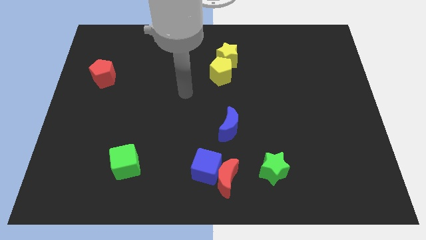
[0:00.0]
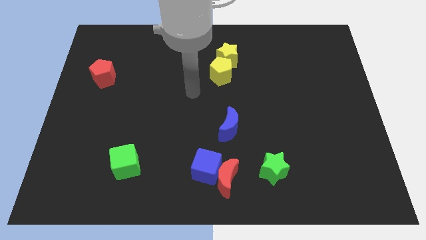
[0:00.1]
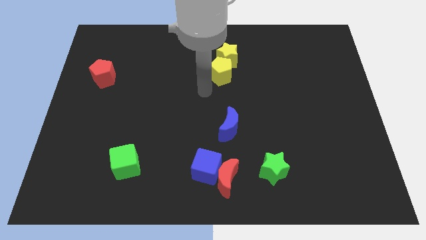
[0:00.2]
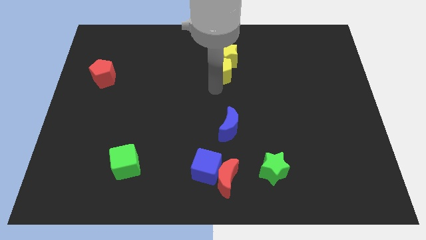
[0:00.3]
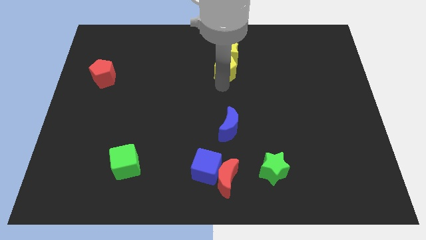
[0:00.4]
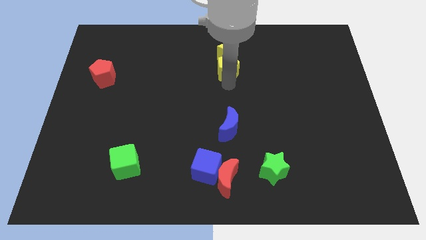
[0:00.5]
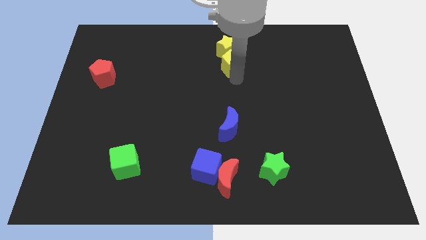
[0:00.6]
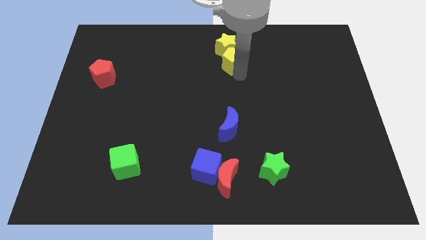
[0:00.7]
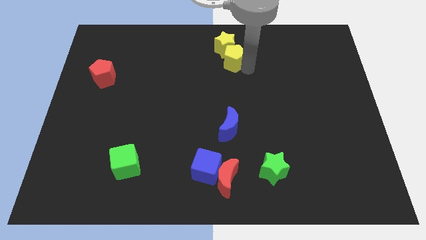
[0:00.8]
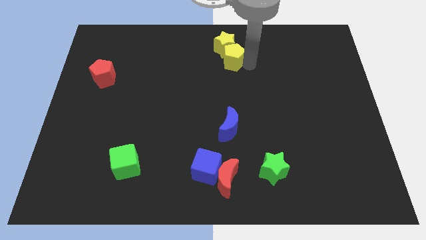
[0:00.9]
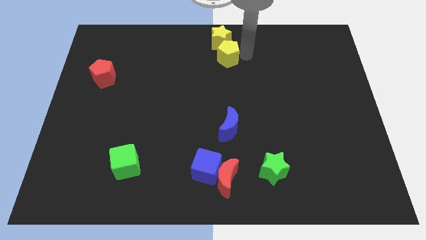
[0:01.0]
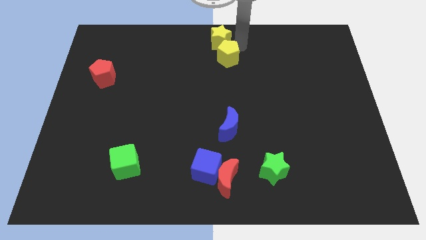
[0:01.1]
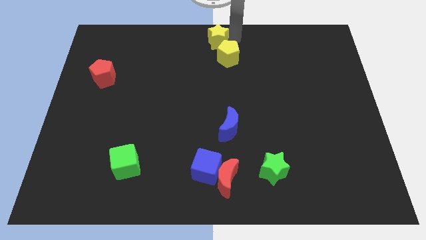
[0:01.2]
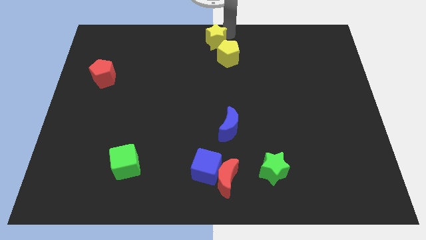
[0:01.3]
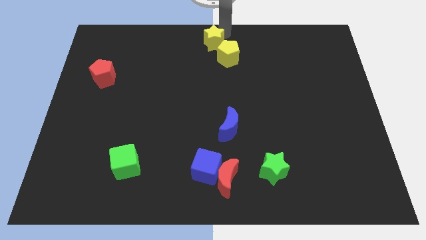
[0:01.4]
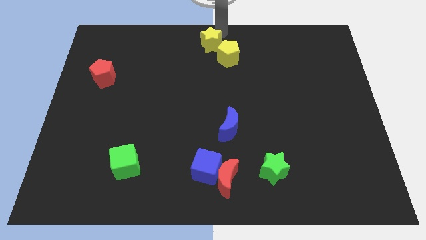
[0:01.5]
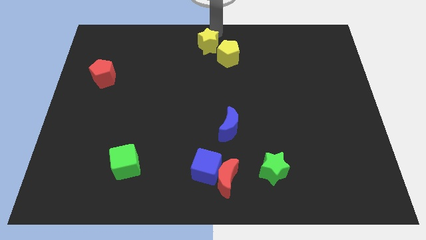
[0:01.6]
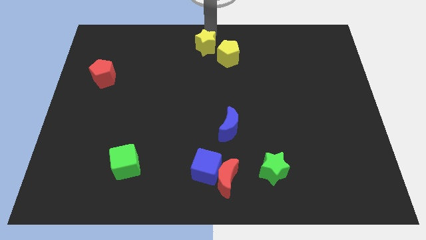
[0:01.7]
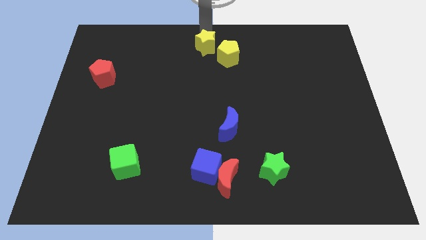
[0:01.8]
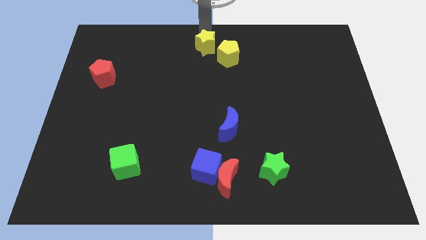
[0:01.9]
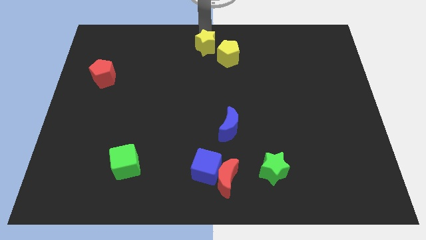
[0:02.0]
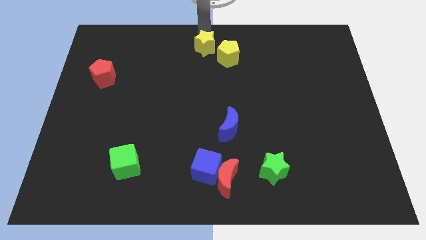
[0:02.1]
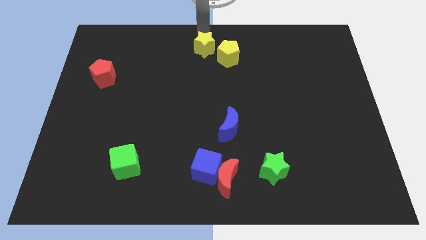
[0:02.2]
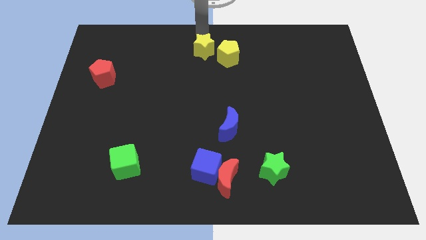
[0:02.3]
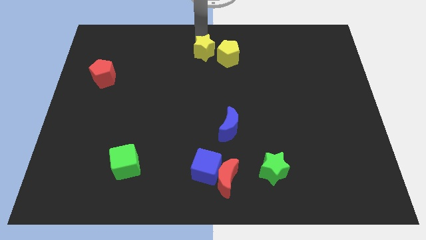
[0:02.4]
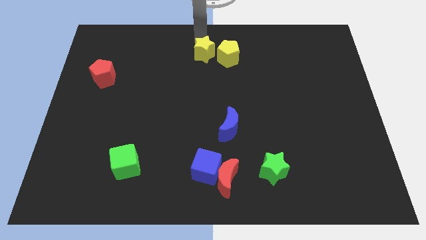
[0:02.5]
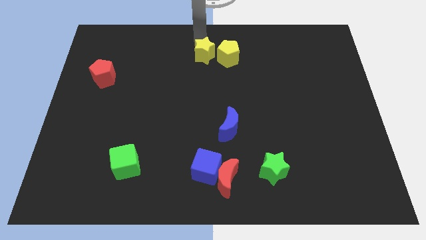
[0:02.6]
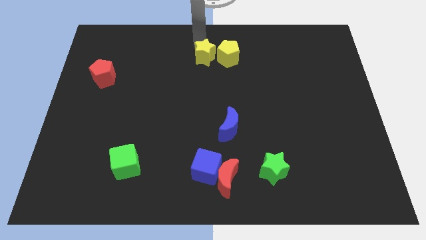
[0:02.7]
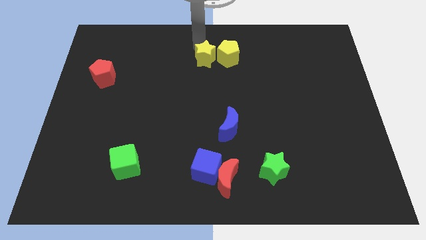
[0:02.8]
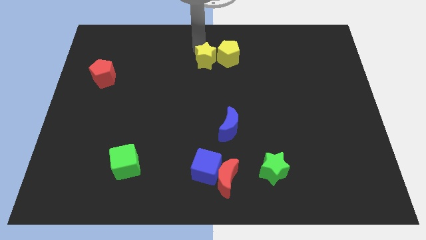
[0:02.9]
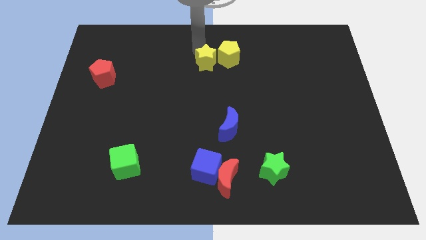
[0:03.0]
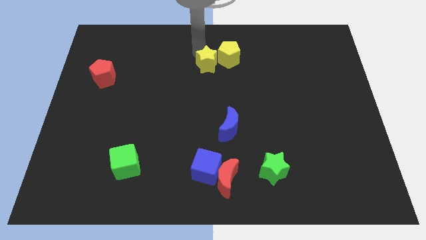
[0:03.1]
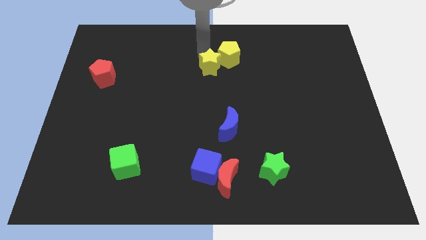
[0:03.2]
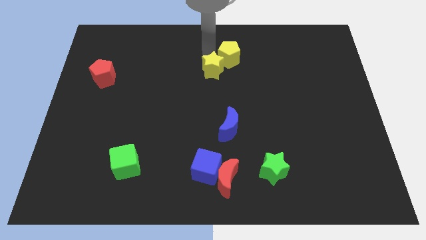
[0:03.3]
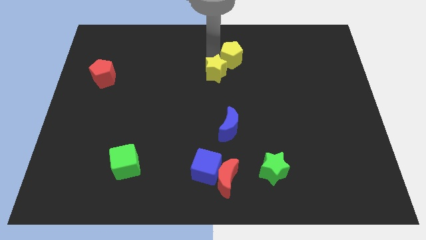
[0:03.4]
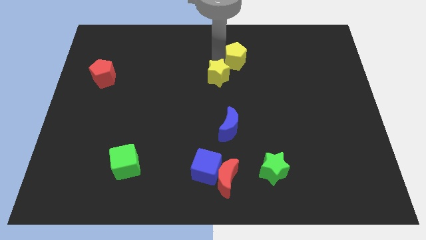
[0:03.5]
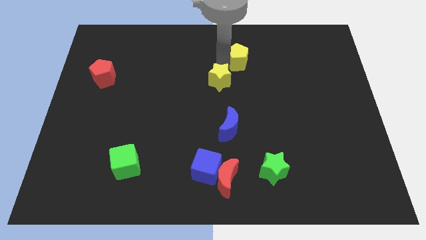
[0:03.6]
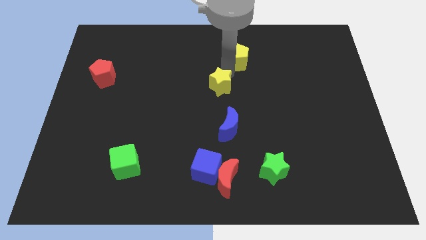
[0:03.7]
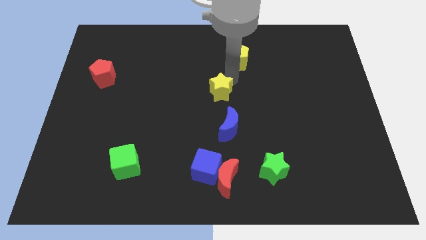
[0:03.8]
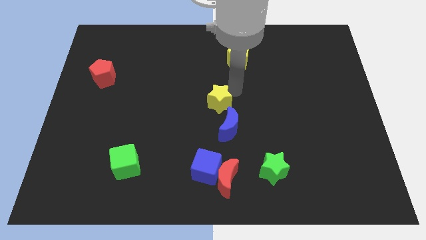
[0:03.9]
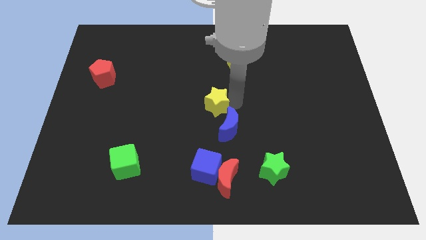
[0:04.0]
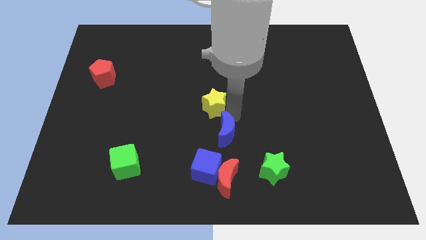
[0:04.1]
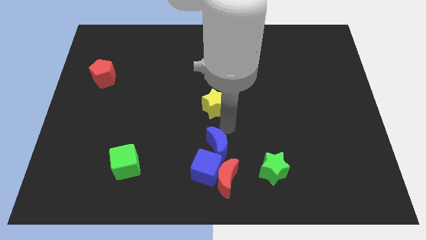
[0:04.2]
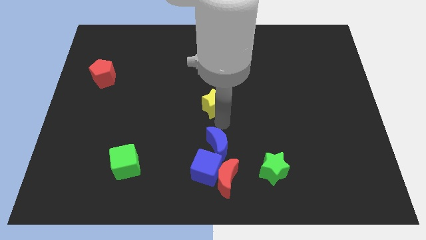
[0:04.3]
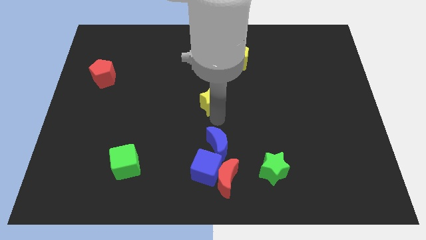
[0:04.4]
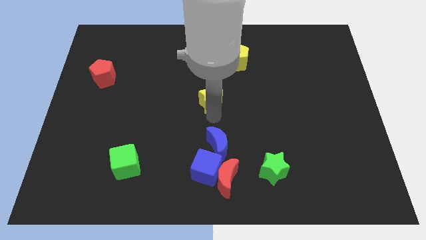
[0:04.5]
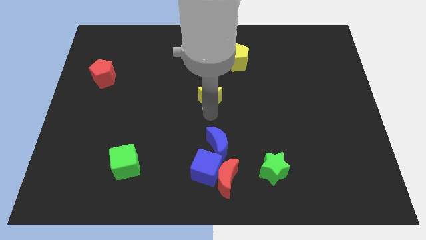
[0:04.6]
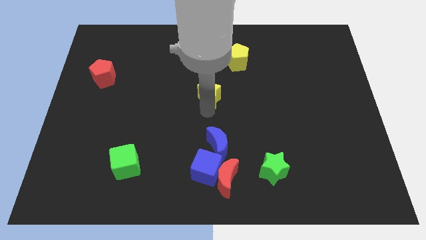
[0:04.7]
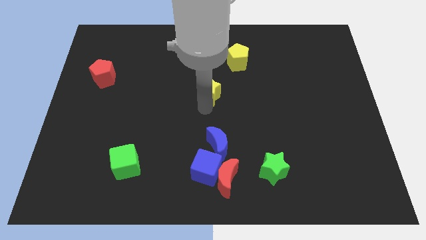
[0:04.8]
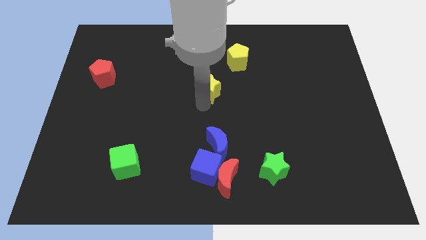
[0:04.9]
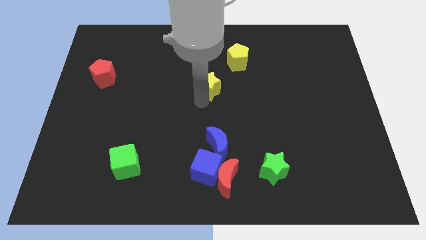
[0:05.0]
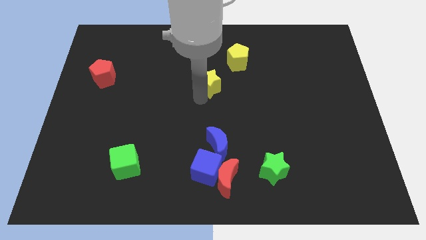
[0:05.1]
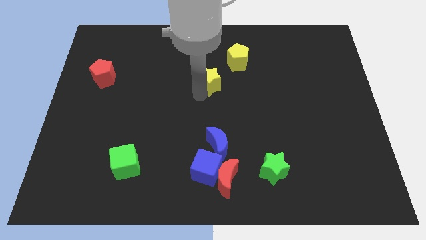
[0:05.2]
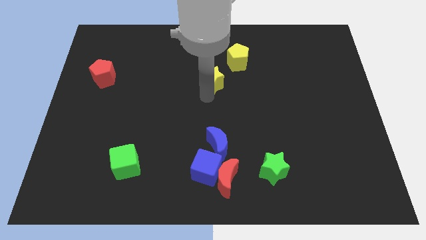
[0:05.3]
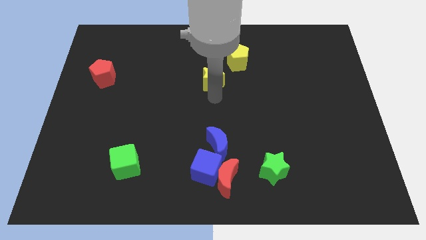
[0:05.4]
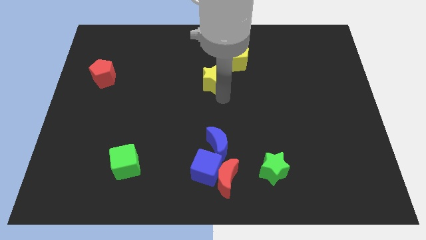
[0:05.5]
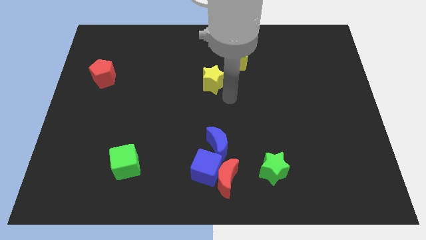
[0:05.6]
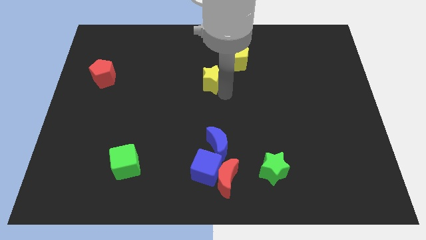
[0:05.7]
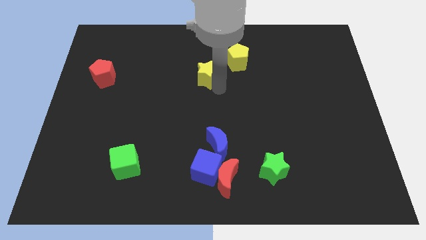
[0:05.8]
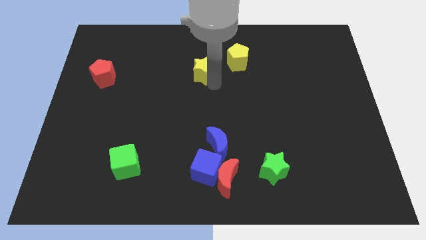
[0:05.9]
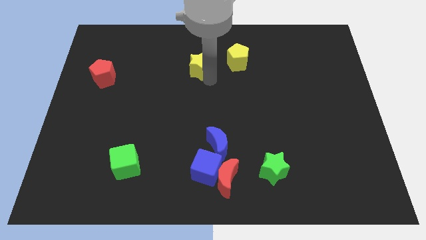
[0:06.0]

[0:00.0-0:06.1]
slide the yellow star to the left slightly

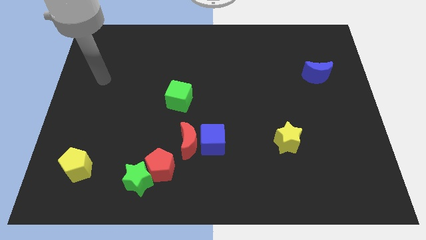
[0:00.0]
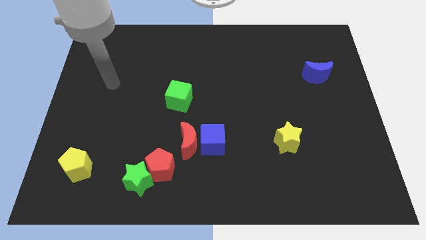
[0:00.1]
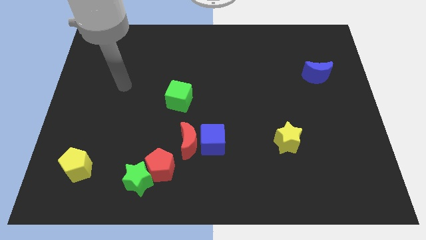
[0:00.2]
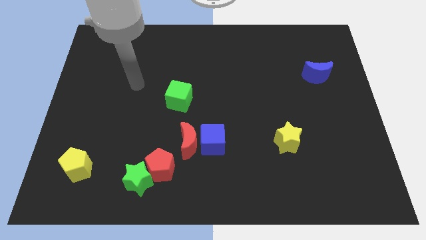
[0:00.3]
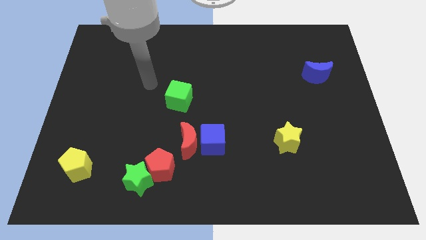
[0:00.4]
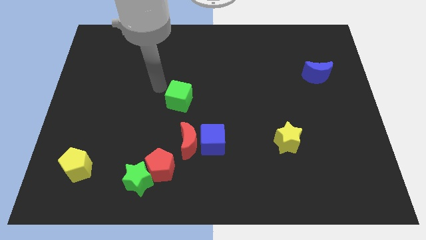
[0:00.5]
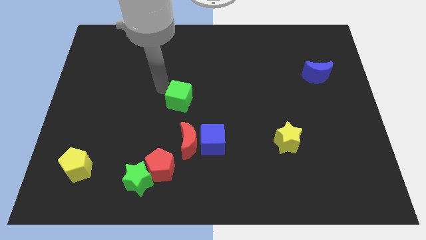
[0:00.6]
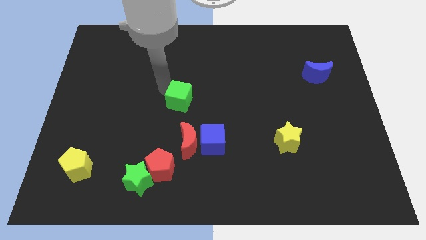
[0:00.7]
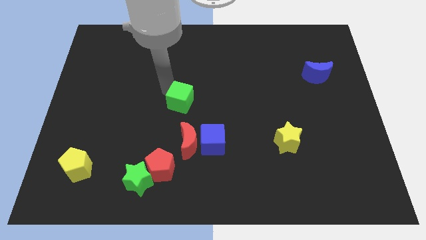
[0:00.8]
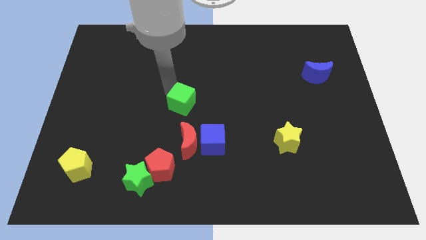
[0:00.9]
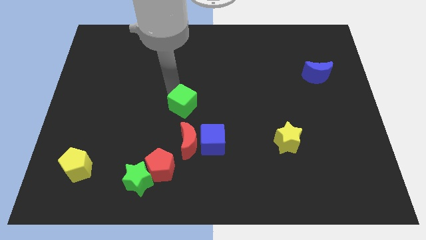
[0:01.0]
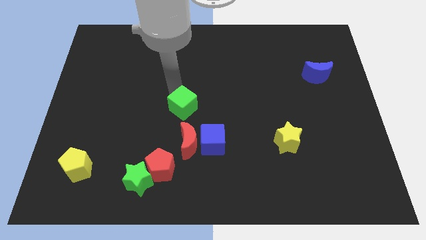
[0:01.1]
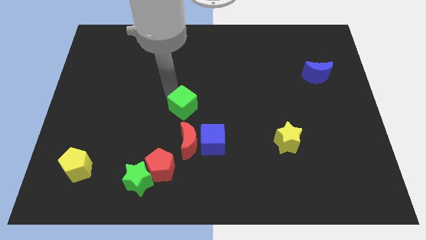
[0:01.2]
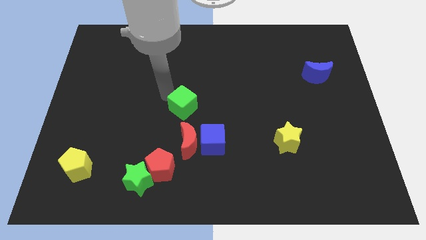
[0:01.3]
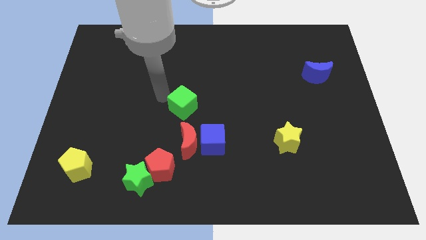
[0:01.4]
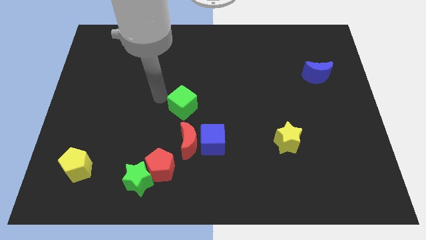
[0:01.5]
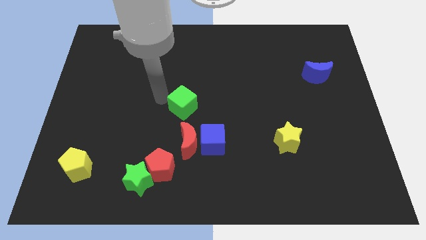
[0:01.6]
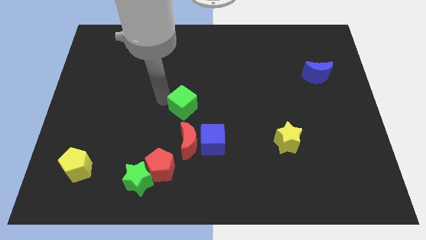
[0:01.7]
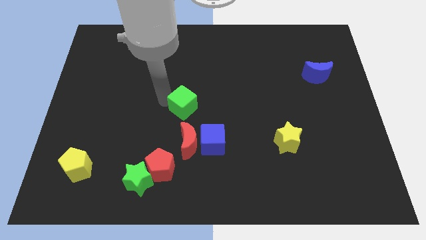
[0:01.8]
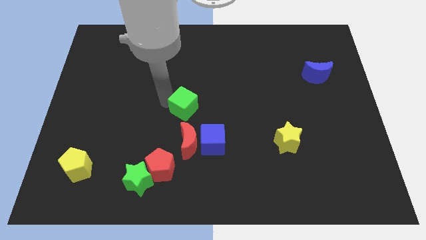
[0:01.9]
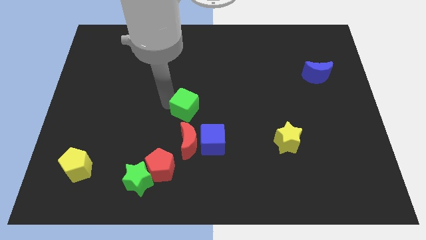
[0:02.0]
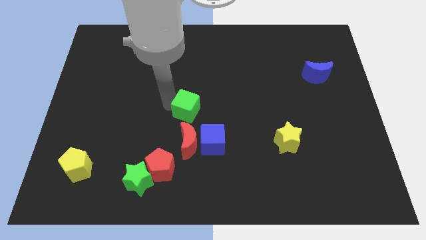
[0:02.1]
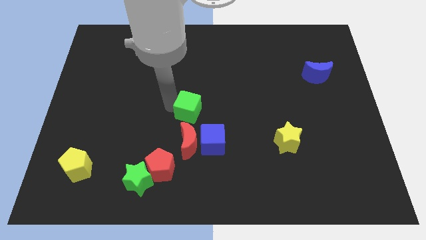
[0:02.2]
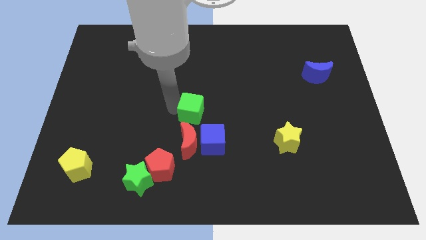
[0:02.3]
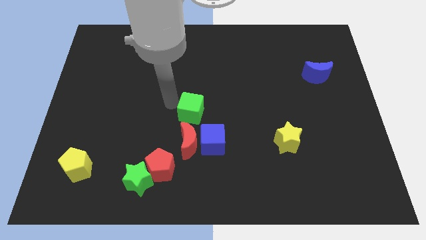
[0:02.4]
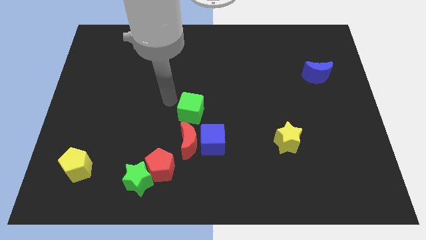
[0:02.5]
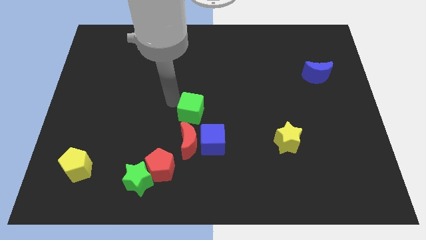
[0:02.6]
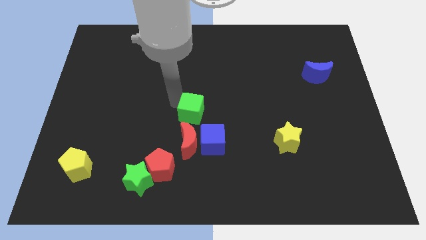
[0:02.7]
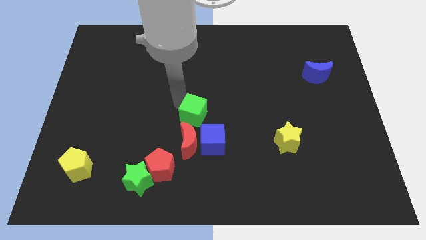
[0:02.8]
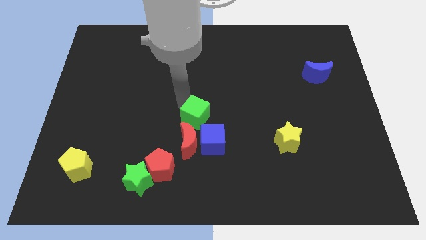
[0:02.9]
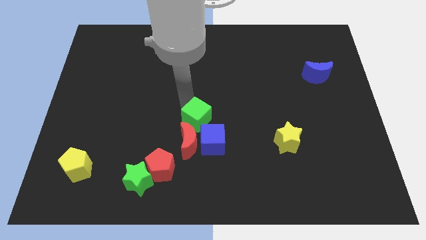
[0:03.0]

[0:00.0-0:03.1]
slightly slide the green cube down and then to the right
